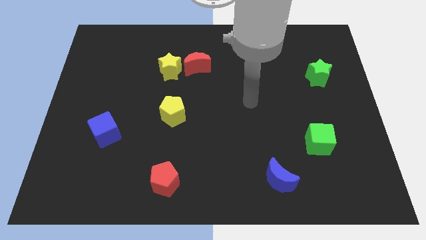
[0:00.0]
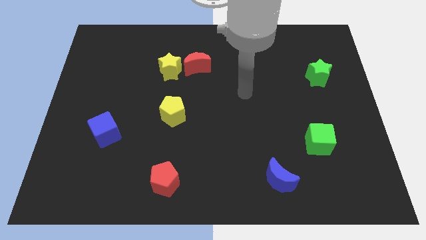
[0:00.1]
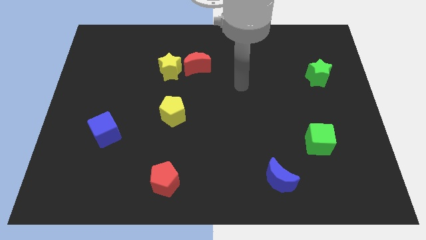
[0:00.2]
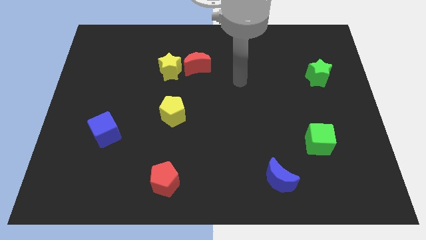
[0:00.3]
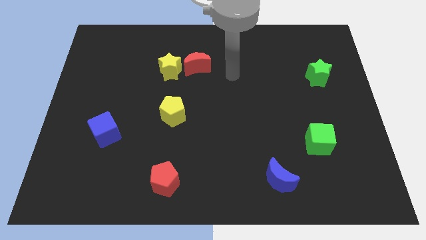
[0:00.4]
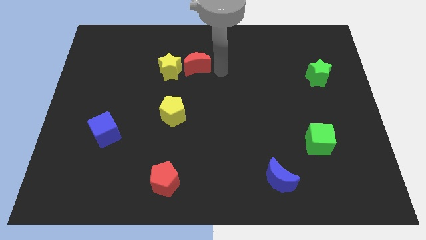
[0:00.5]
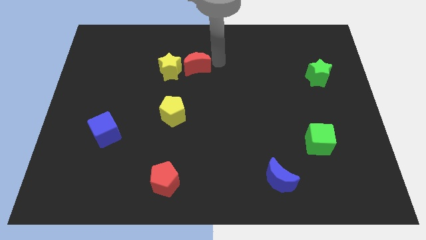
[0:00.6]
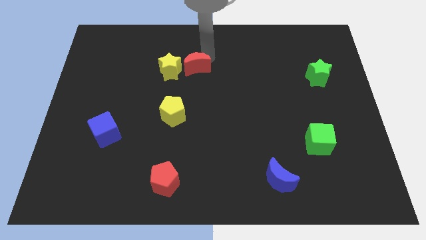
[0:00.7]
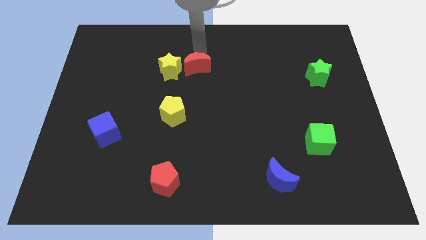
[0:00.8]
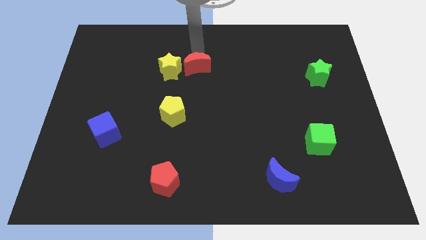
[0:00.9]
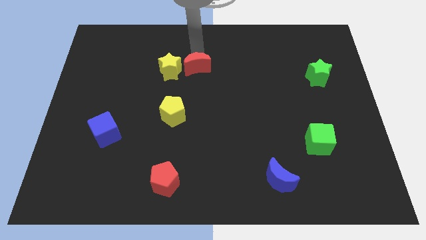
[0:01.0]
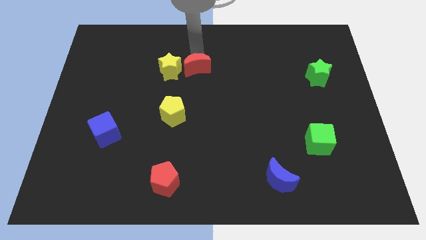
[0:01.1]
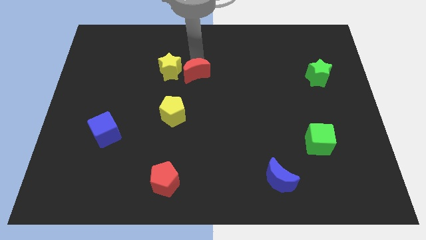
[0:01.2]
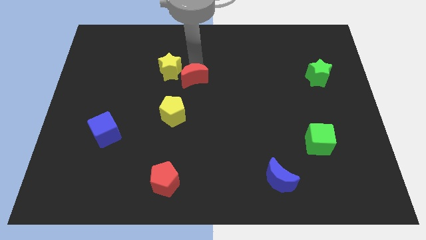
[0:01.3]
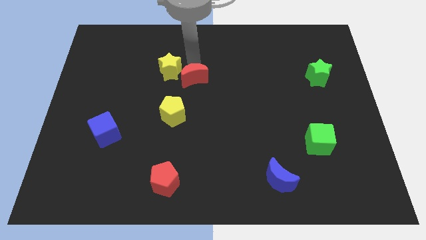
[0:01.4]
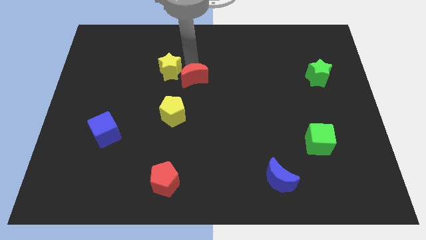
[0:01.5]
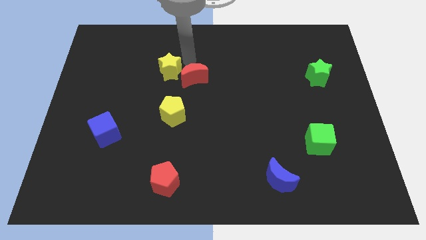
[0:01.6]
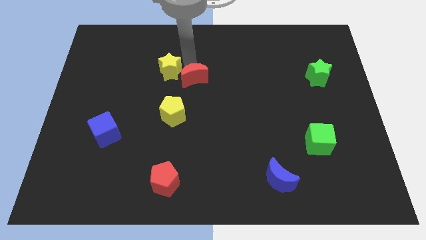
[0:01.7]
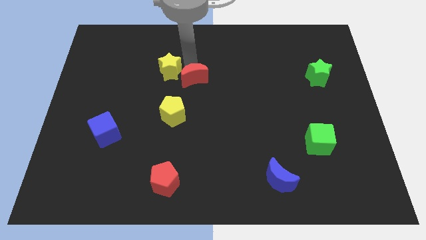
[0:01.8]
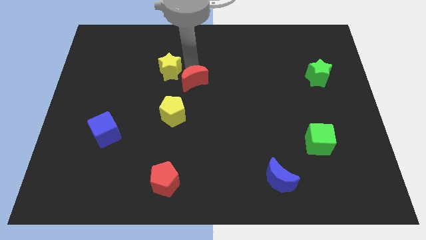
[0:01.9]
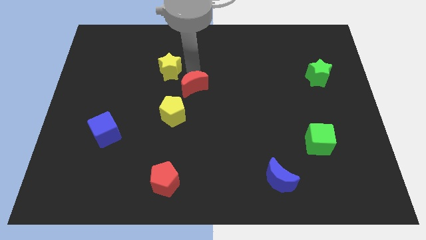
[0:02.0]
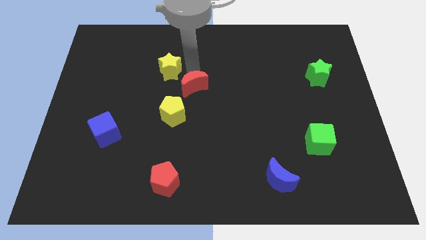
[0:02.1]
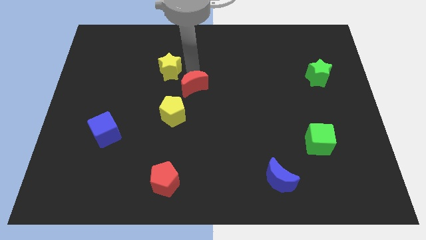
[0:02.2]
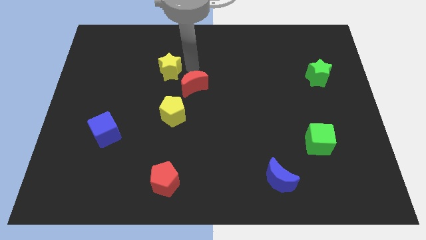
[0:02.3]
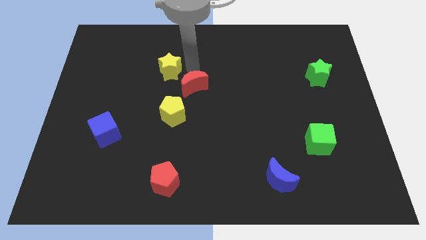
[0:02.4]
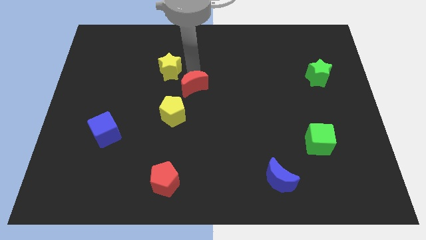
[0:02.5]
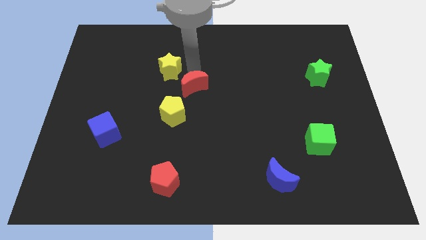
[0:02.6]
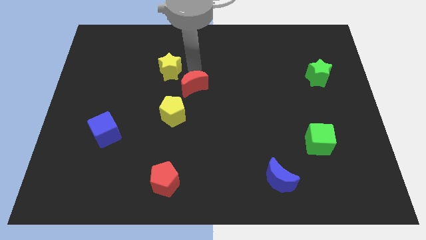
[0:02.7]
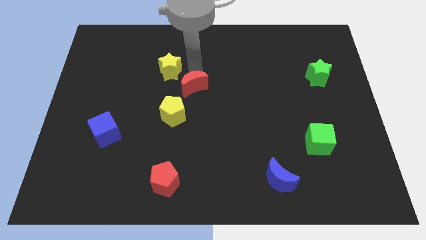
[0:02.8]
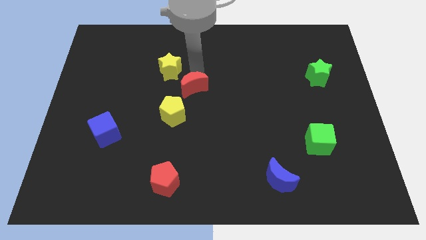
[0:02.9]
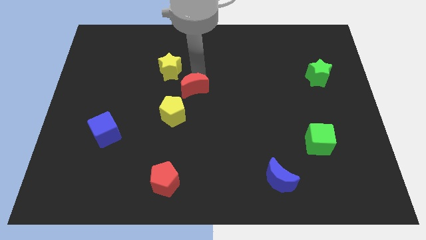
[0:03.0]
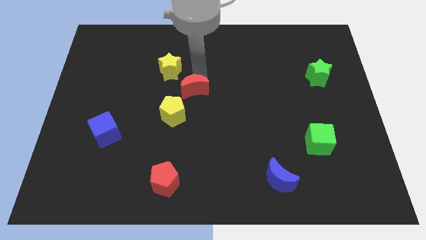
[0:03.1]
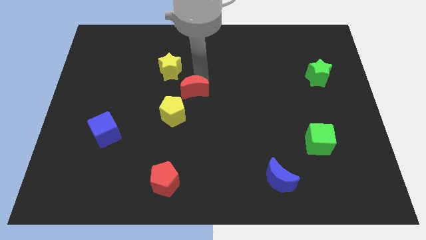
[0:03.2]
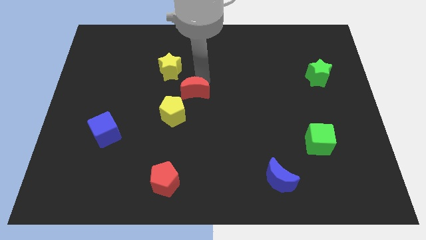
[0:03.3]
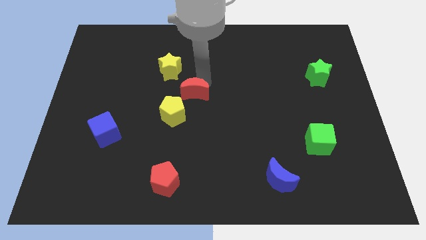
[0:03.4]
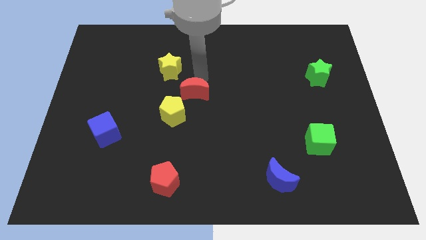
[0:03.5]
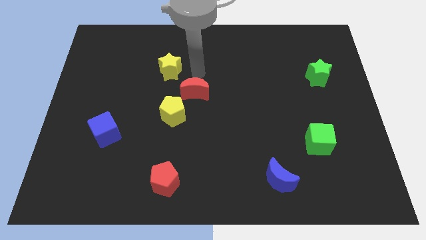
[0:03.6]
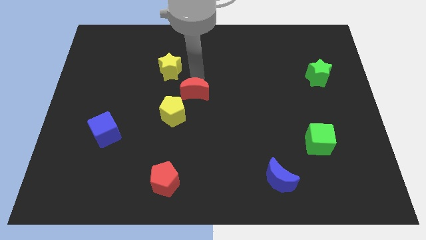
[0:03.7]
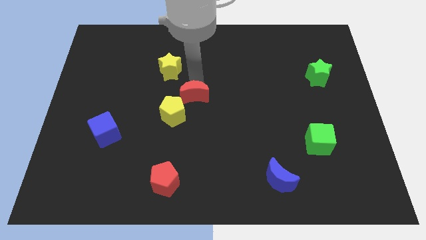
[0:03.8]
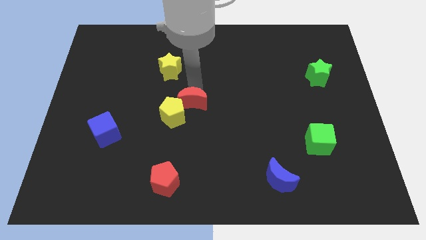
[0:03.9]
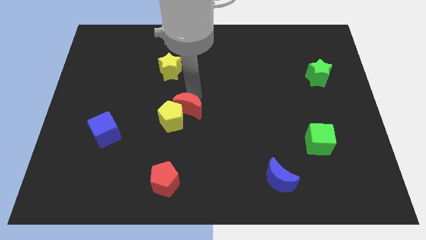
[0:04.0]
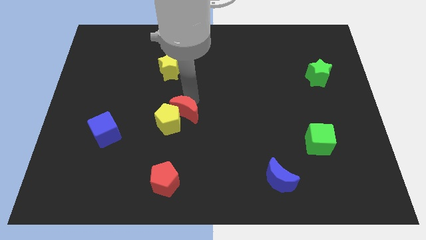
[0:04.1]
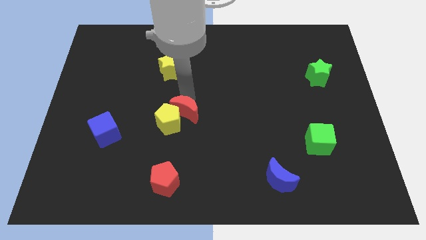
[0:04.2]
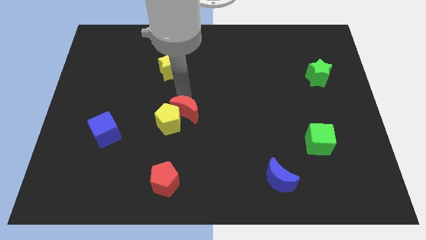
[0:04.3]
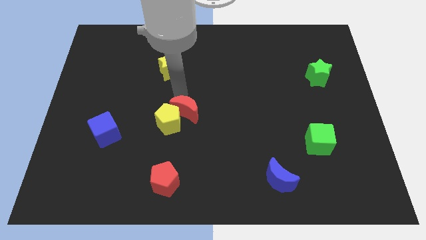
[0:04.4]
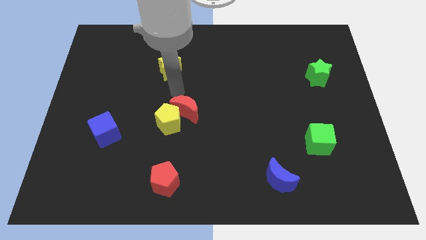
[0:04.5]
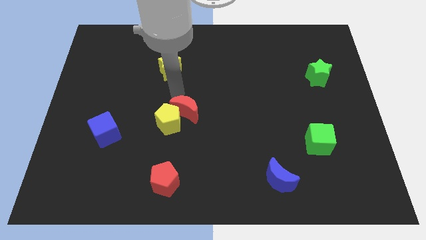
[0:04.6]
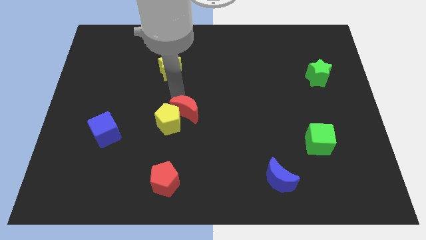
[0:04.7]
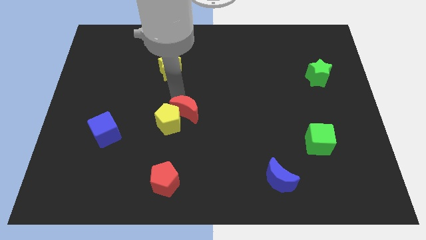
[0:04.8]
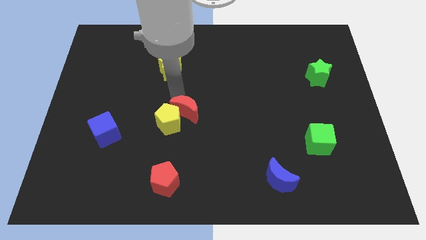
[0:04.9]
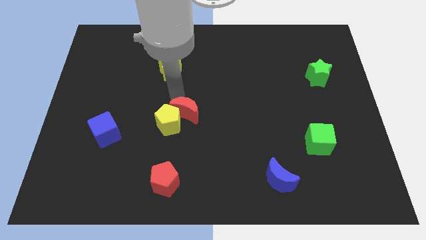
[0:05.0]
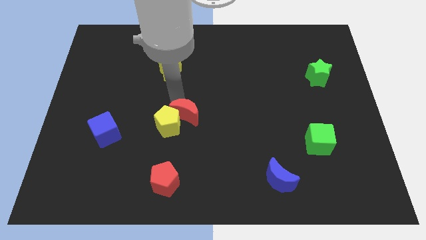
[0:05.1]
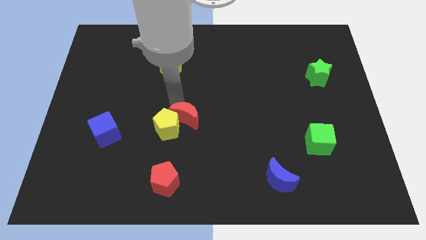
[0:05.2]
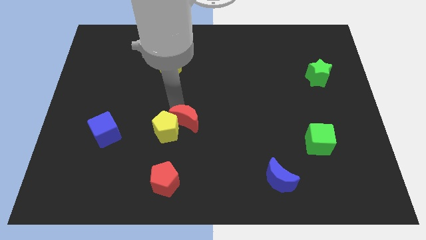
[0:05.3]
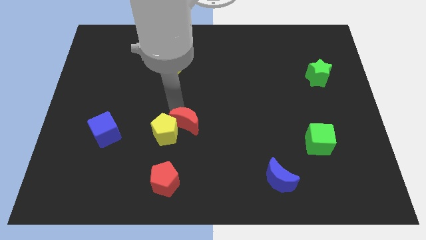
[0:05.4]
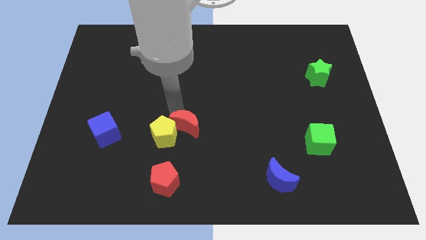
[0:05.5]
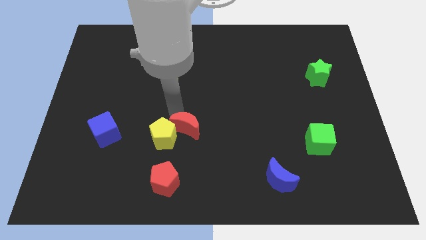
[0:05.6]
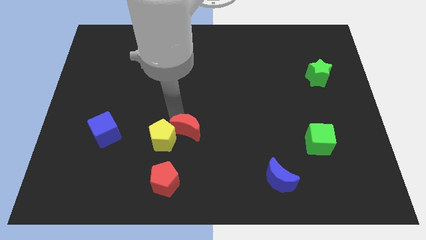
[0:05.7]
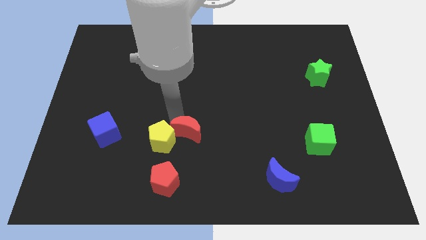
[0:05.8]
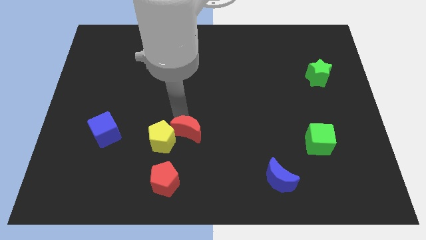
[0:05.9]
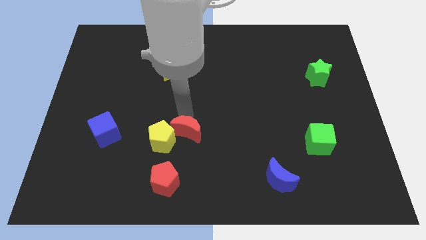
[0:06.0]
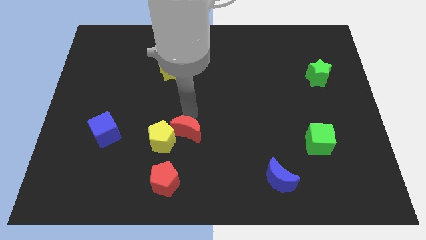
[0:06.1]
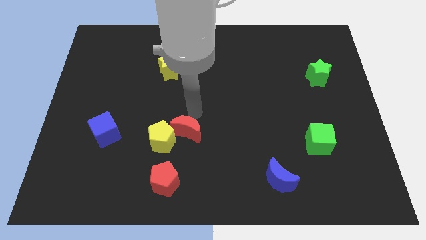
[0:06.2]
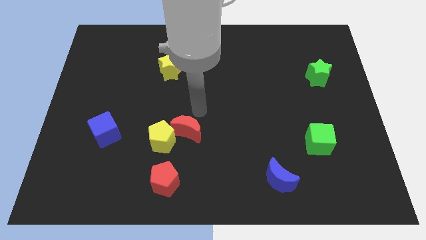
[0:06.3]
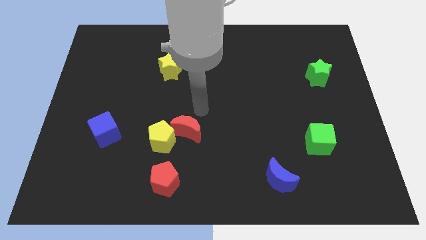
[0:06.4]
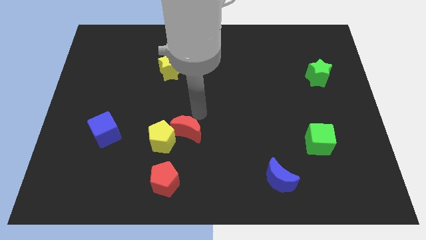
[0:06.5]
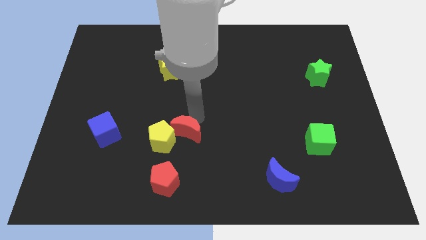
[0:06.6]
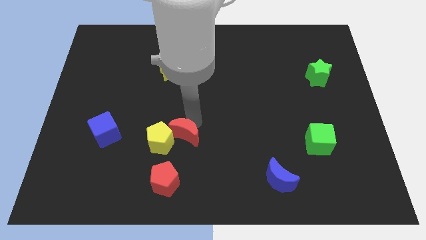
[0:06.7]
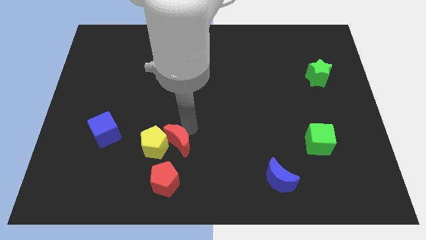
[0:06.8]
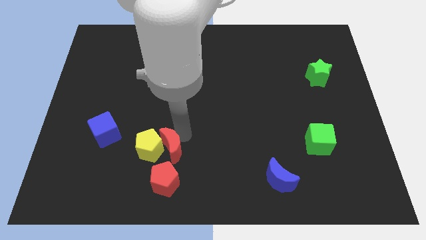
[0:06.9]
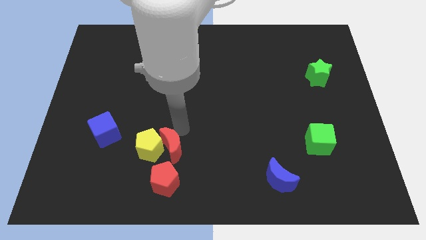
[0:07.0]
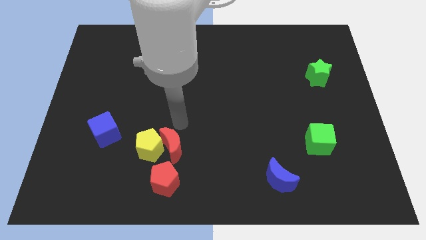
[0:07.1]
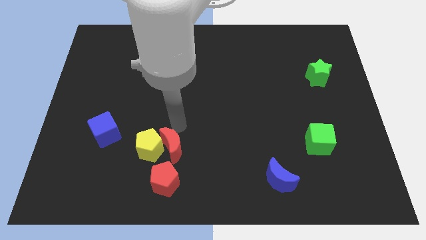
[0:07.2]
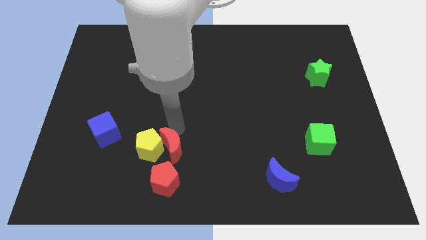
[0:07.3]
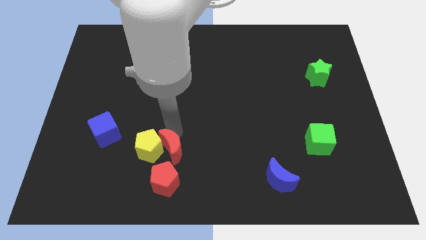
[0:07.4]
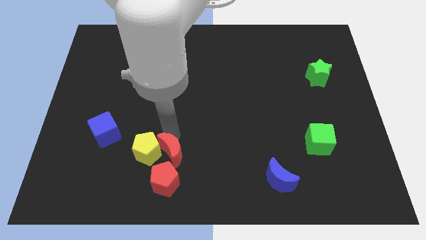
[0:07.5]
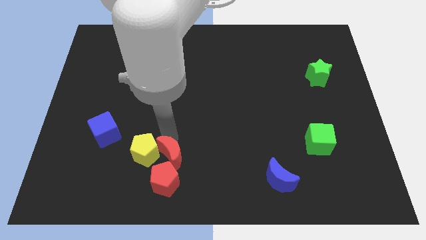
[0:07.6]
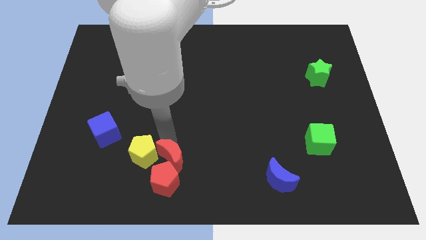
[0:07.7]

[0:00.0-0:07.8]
put the red moon towards the red pentagon
